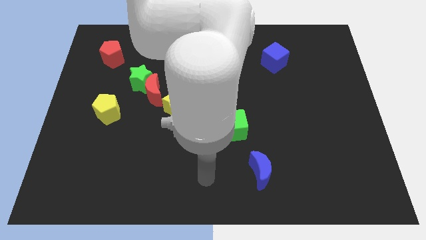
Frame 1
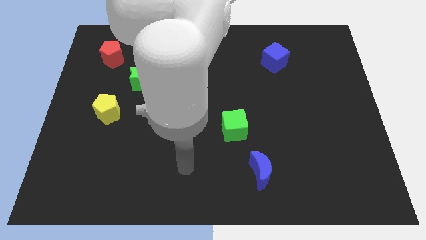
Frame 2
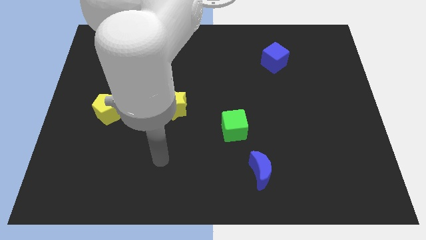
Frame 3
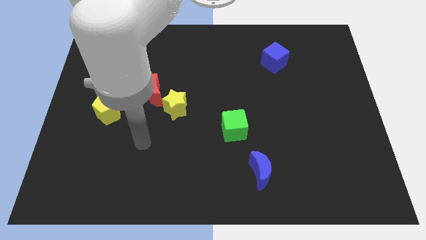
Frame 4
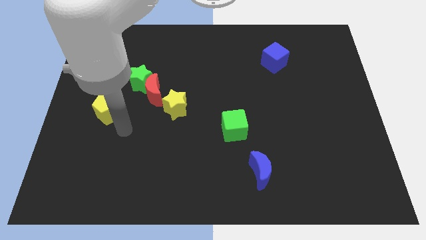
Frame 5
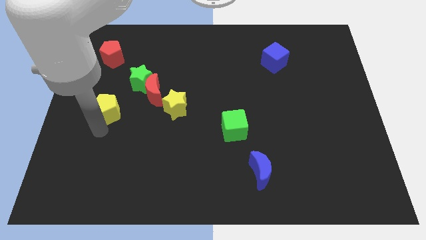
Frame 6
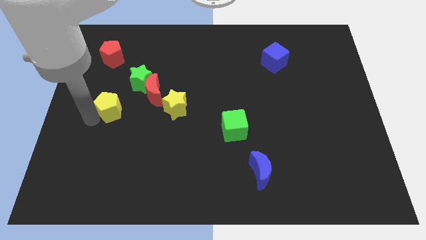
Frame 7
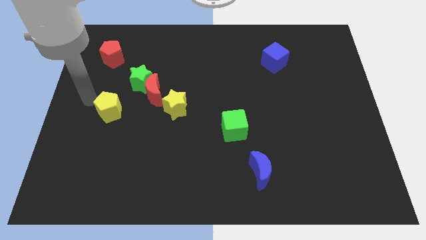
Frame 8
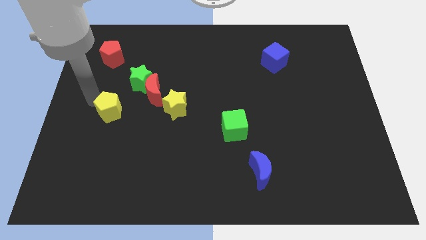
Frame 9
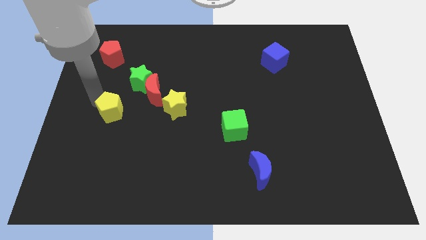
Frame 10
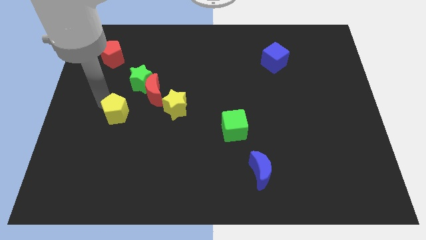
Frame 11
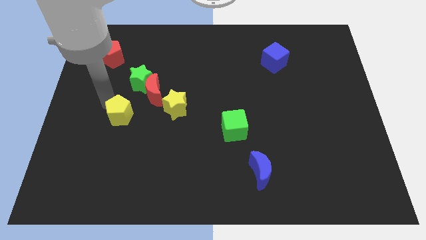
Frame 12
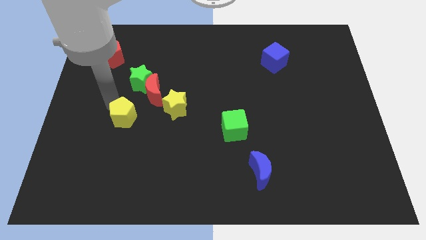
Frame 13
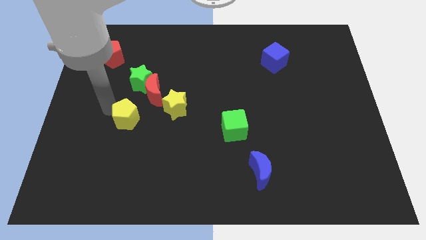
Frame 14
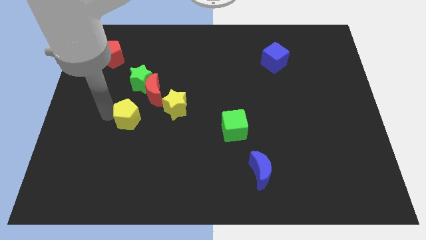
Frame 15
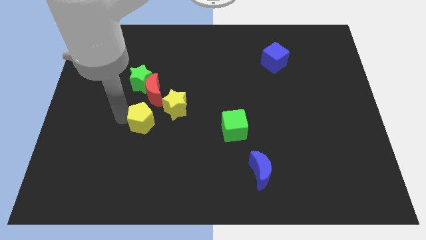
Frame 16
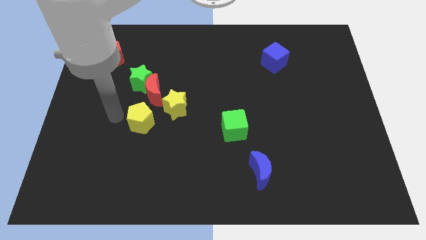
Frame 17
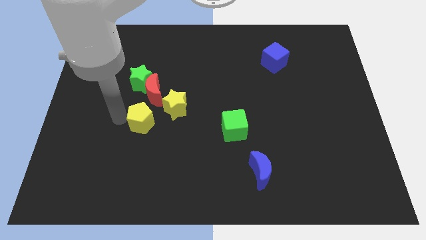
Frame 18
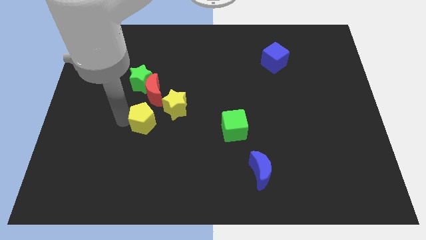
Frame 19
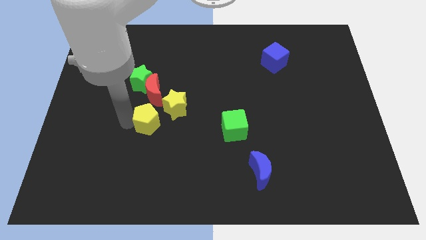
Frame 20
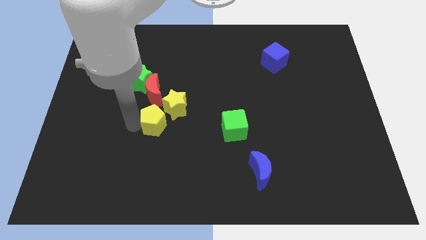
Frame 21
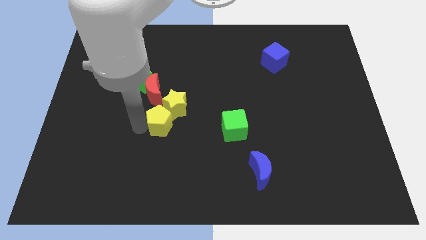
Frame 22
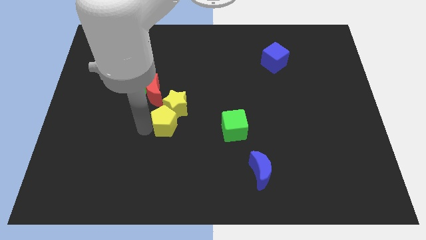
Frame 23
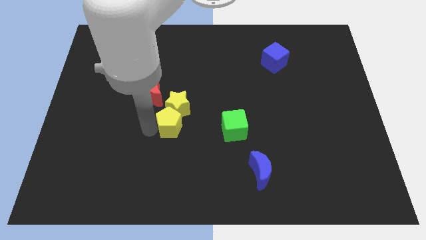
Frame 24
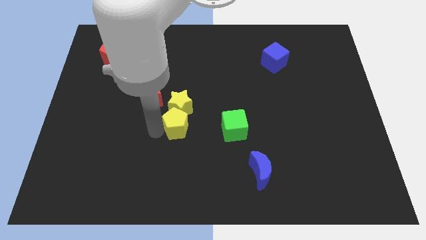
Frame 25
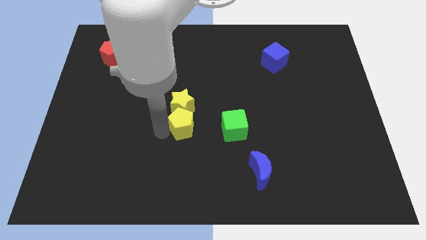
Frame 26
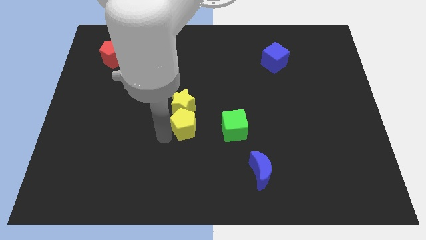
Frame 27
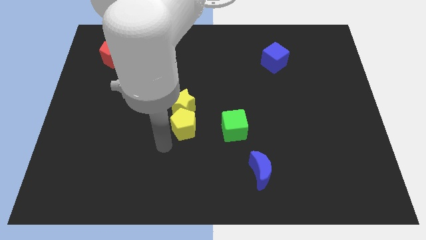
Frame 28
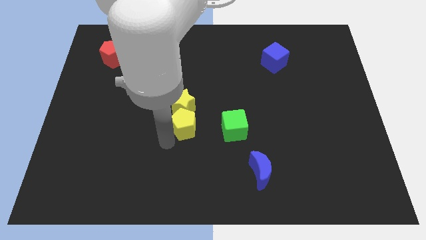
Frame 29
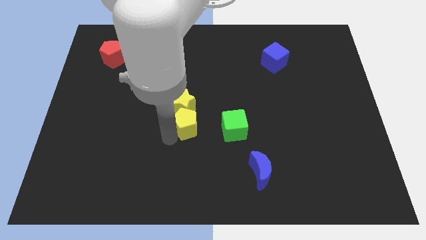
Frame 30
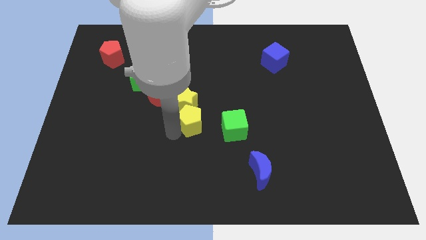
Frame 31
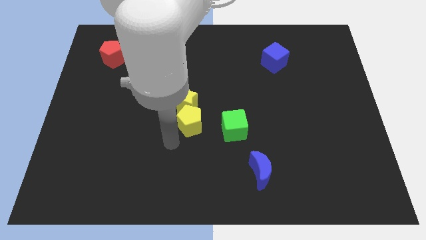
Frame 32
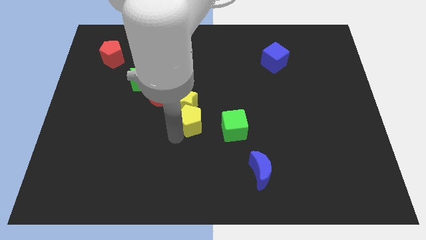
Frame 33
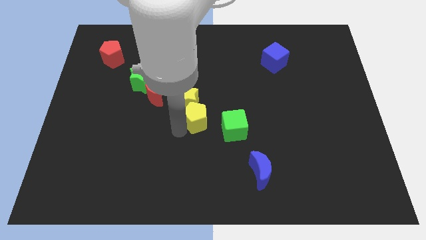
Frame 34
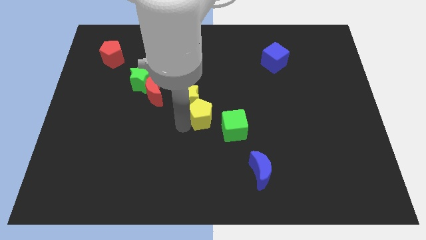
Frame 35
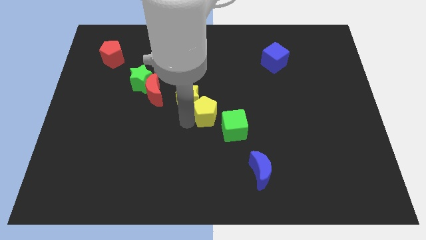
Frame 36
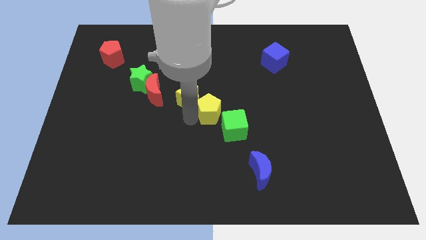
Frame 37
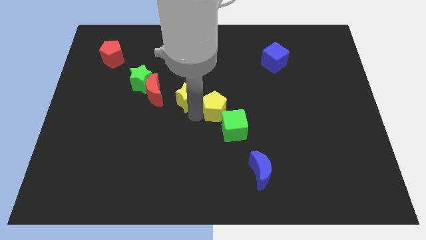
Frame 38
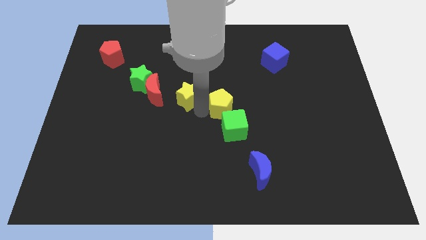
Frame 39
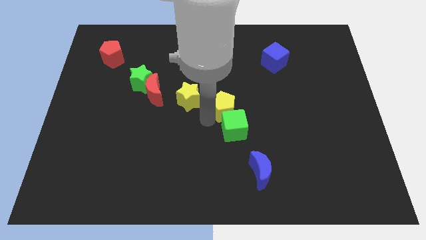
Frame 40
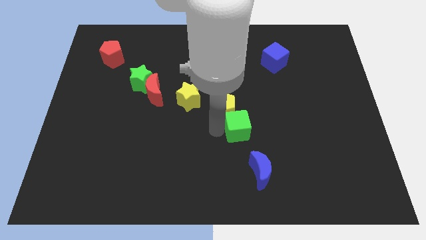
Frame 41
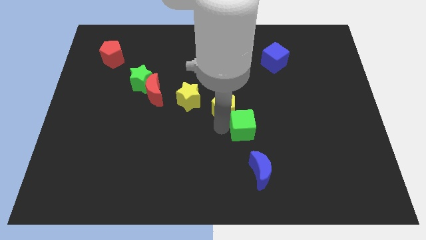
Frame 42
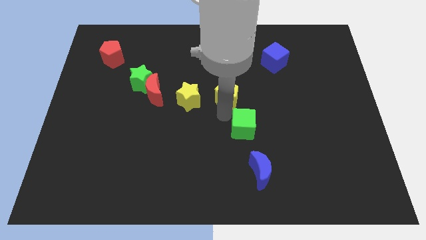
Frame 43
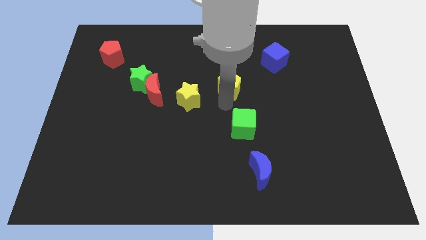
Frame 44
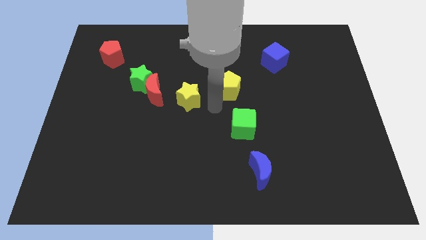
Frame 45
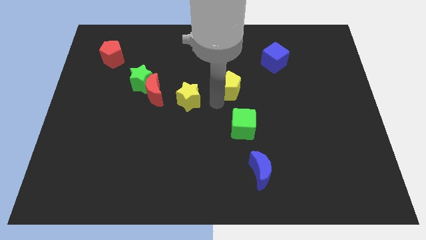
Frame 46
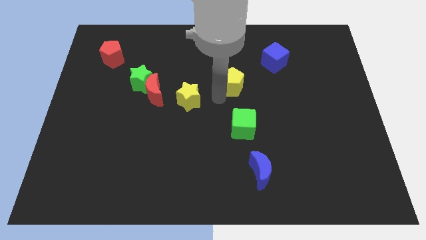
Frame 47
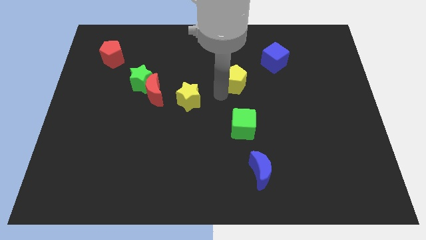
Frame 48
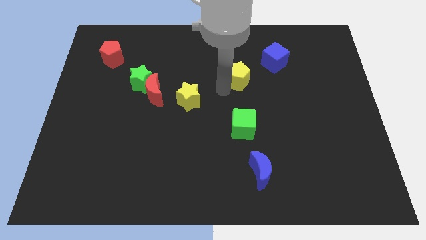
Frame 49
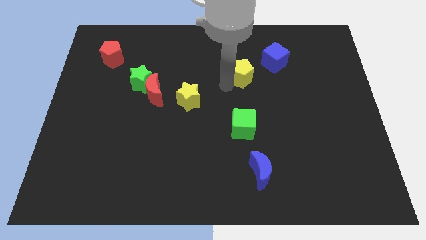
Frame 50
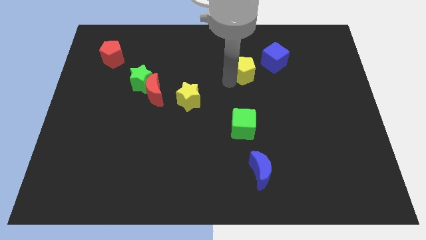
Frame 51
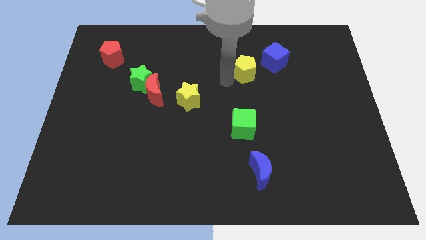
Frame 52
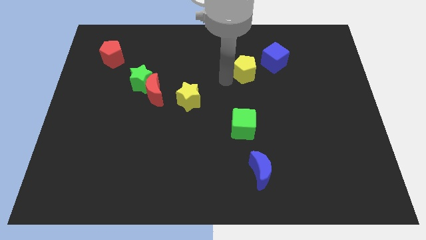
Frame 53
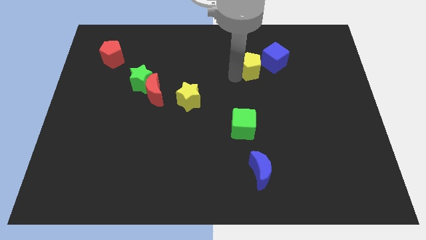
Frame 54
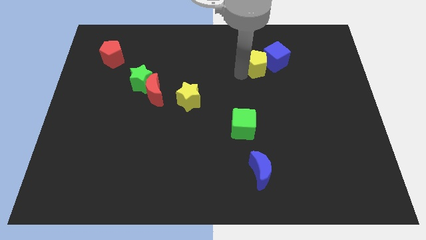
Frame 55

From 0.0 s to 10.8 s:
put the yellow pentagon to the blue cube

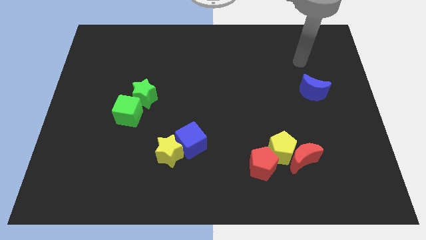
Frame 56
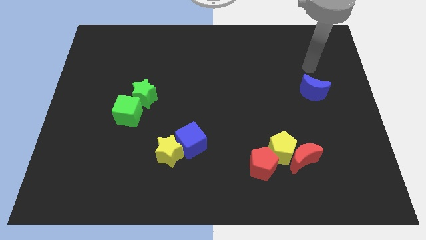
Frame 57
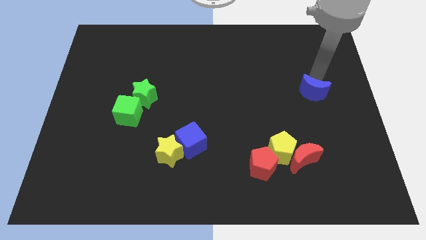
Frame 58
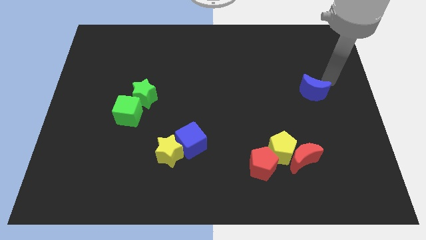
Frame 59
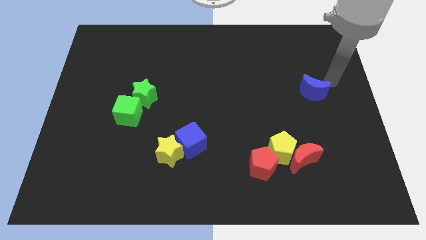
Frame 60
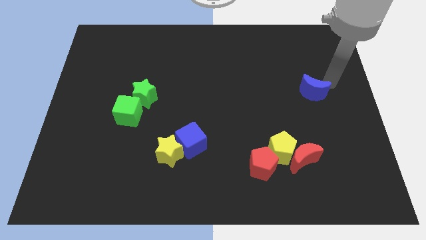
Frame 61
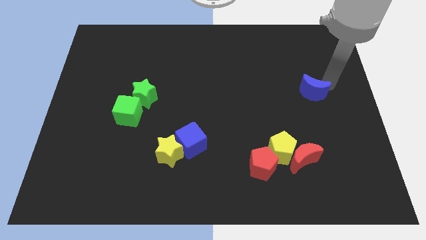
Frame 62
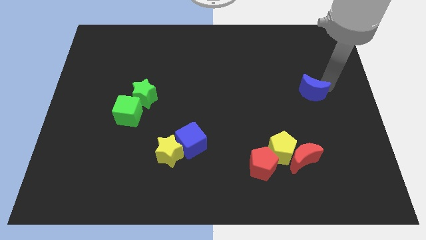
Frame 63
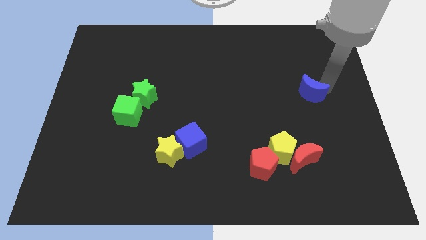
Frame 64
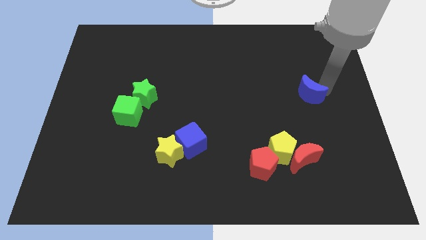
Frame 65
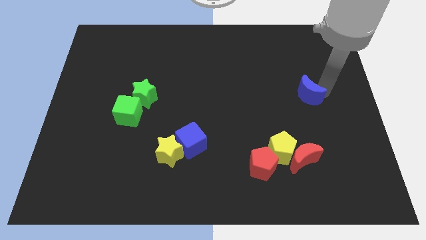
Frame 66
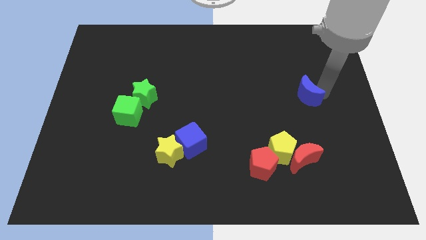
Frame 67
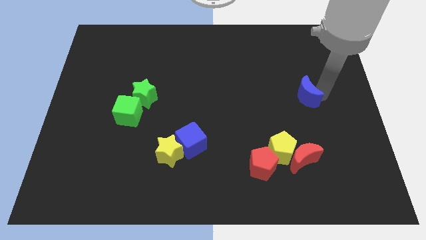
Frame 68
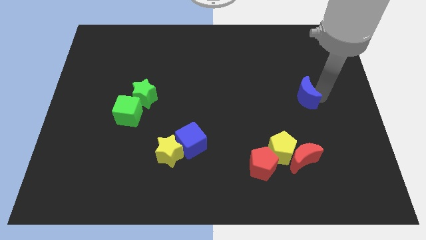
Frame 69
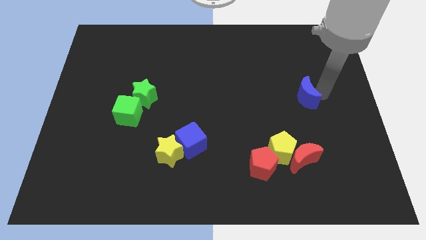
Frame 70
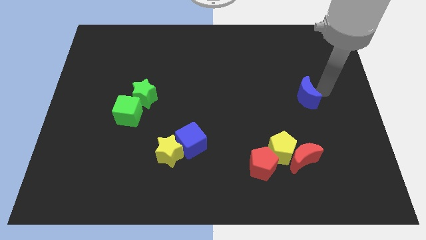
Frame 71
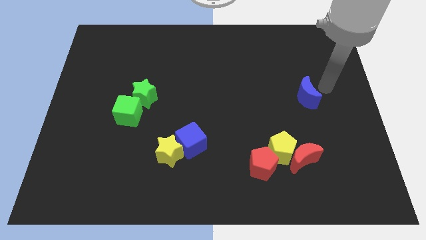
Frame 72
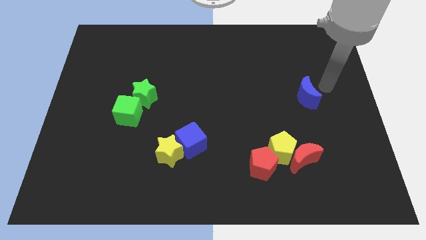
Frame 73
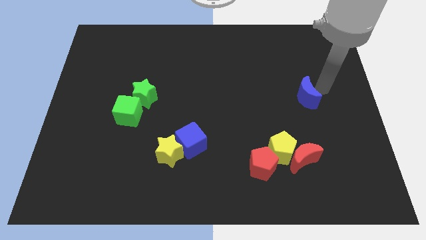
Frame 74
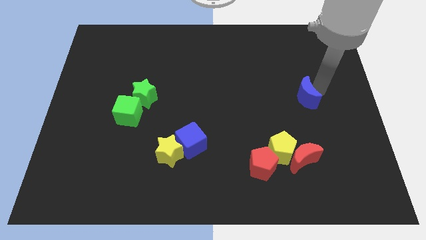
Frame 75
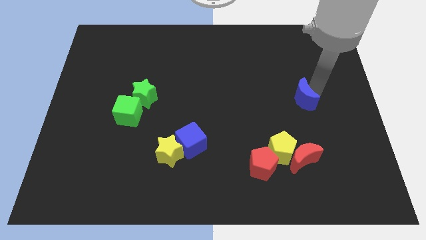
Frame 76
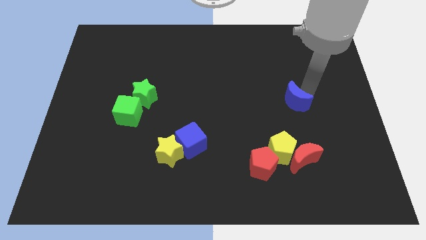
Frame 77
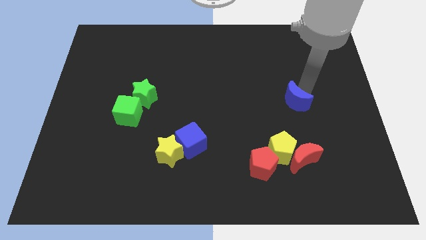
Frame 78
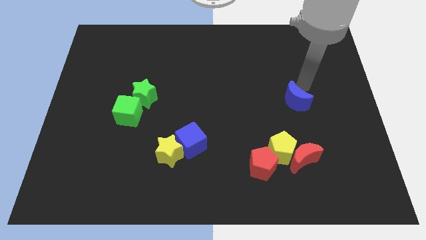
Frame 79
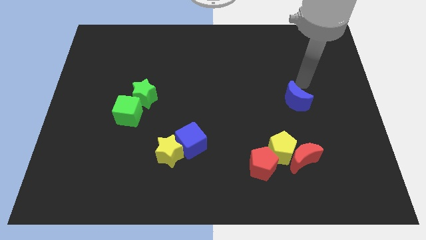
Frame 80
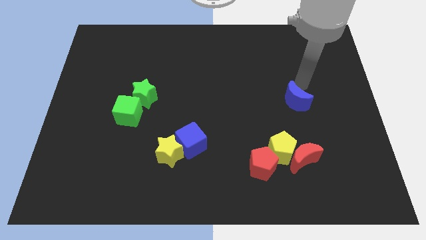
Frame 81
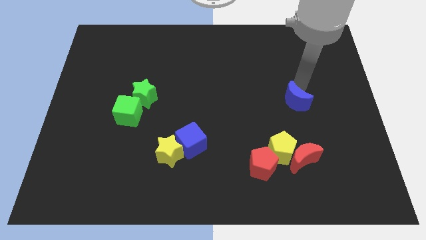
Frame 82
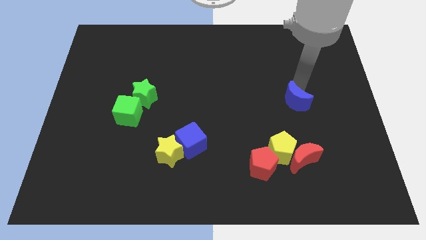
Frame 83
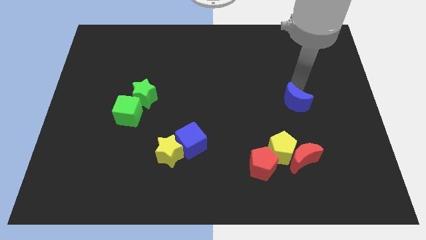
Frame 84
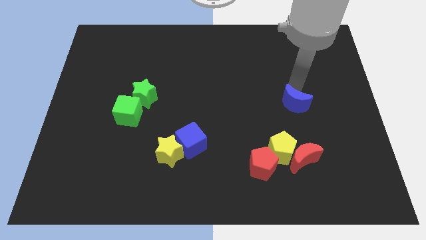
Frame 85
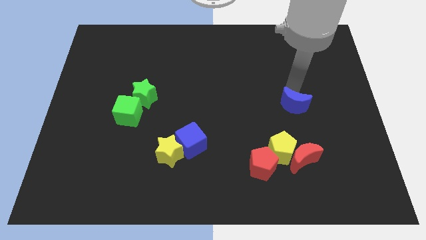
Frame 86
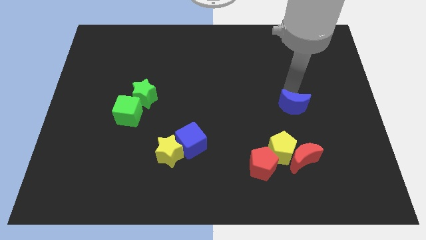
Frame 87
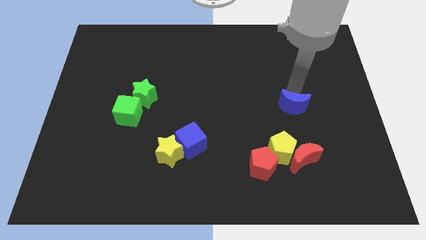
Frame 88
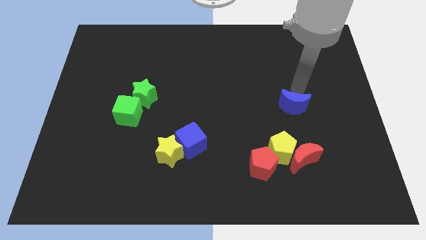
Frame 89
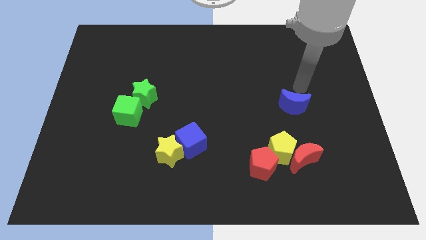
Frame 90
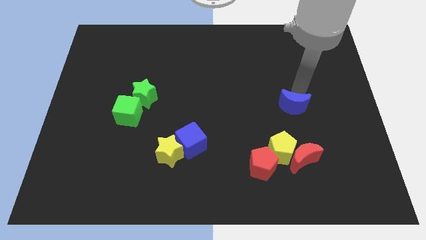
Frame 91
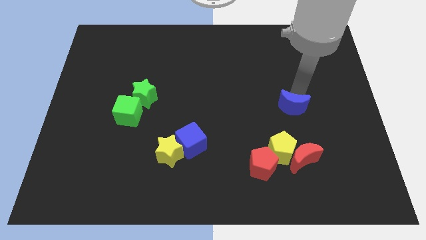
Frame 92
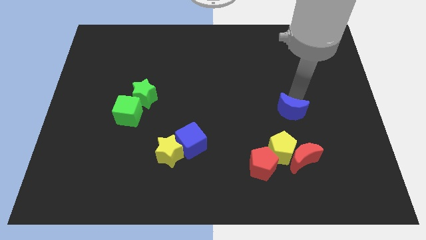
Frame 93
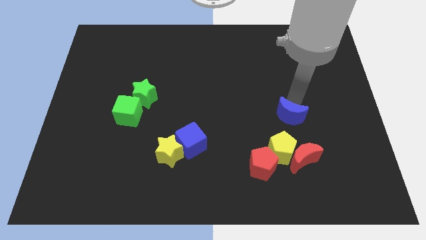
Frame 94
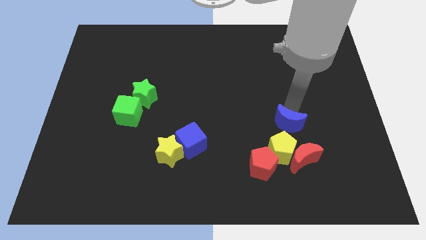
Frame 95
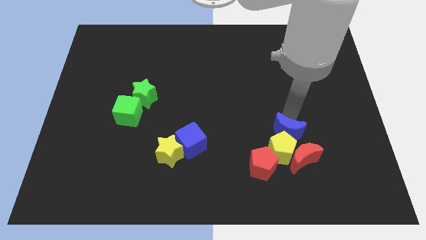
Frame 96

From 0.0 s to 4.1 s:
put the blue moon next to the yellow pentagon
